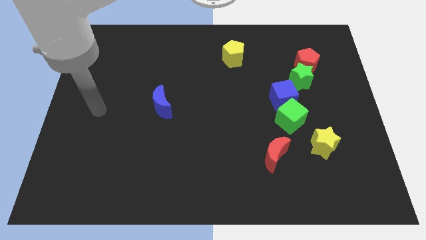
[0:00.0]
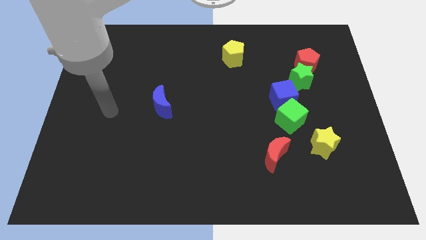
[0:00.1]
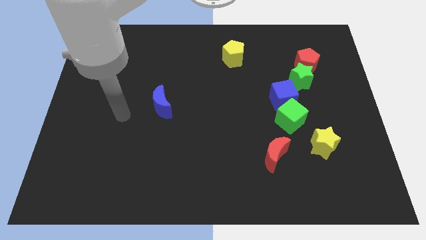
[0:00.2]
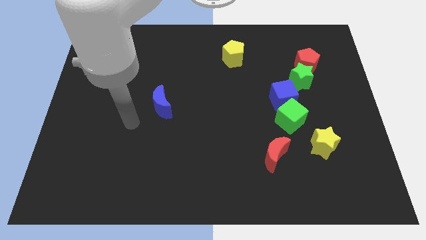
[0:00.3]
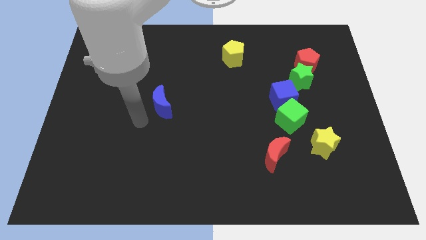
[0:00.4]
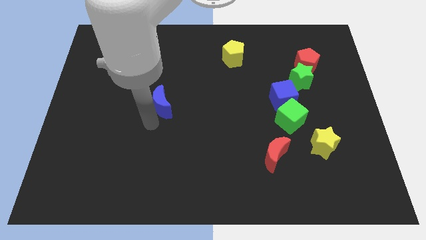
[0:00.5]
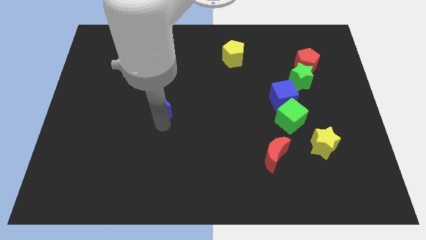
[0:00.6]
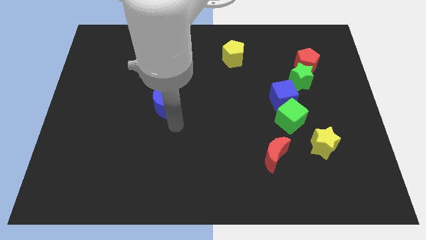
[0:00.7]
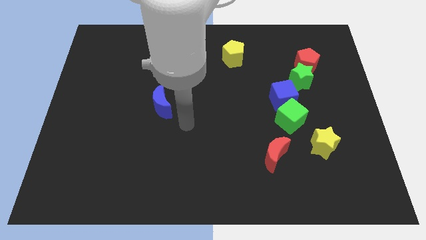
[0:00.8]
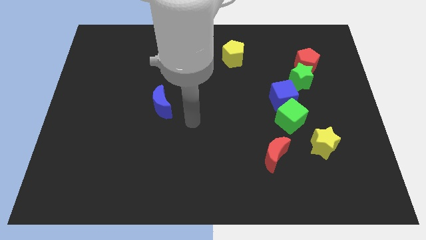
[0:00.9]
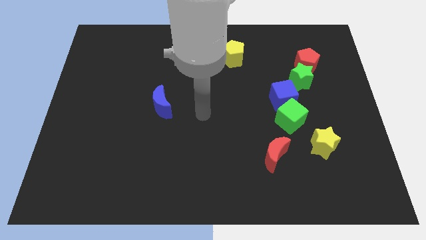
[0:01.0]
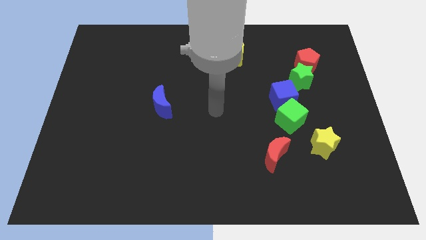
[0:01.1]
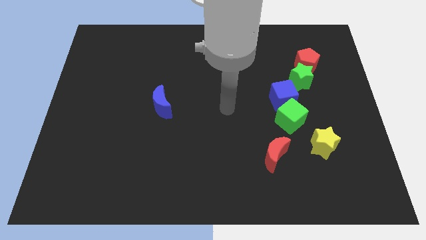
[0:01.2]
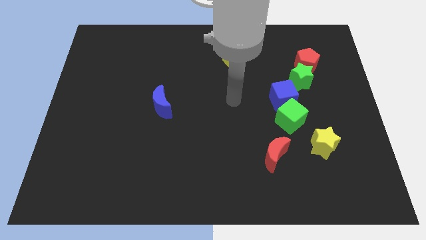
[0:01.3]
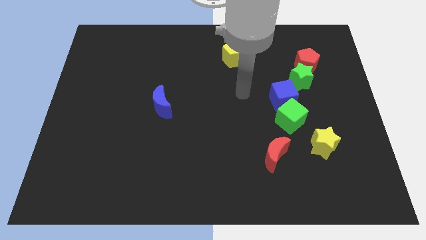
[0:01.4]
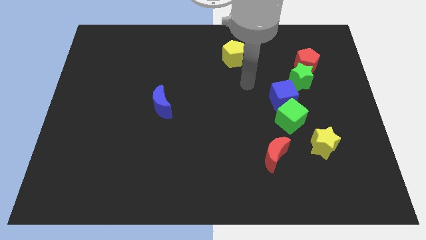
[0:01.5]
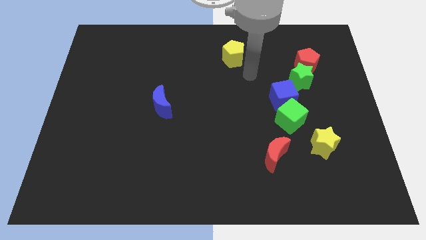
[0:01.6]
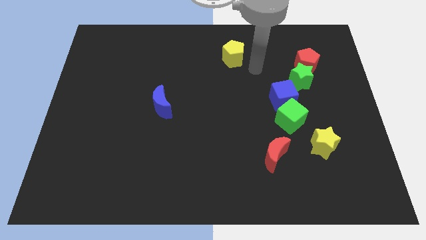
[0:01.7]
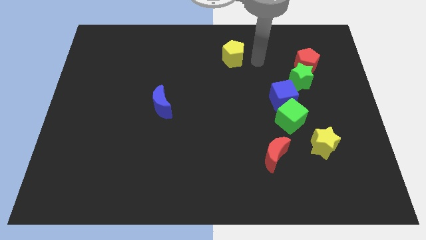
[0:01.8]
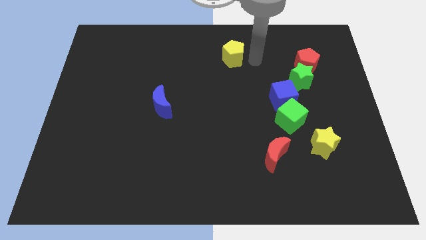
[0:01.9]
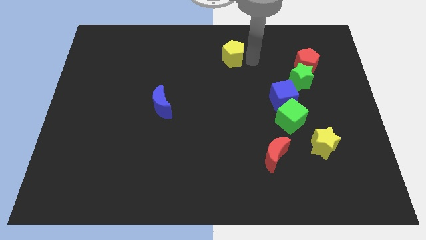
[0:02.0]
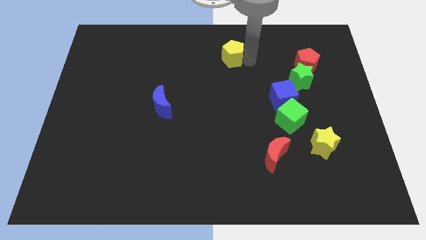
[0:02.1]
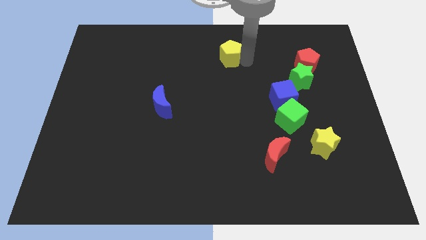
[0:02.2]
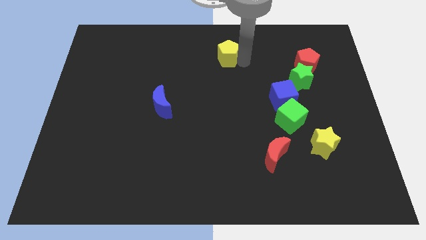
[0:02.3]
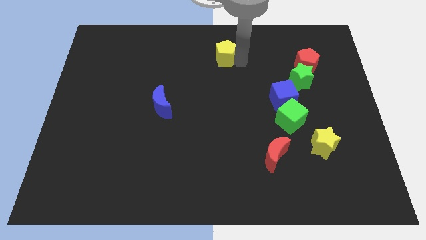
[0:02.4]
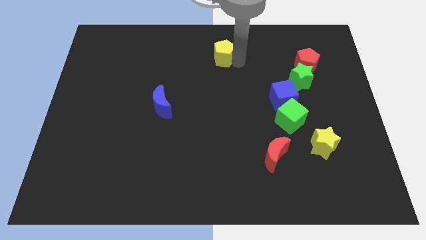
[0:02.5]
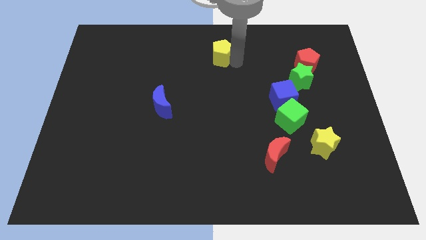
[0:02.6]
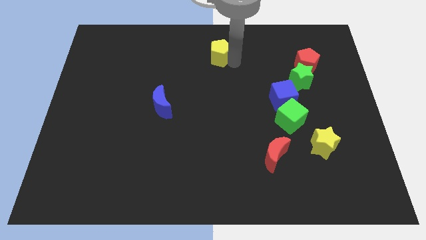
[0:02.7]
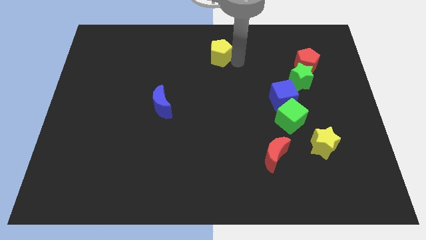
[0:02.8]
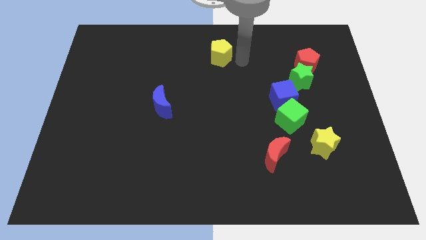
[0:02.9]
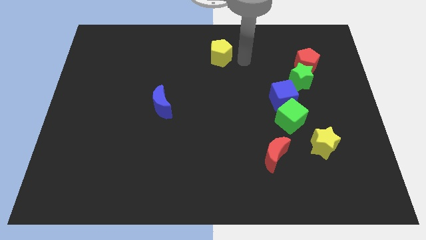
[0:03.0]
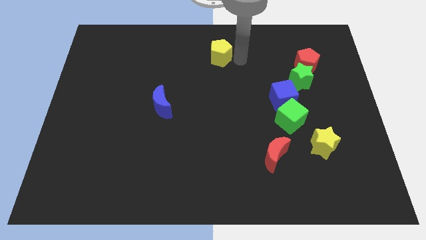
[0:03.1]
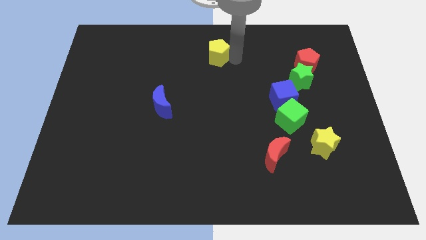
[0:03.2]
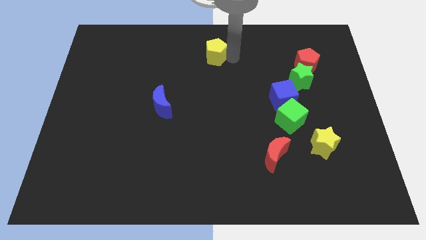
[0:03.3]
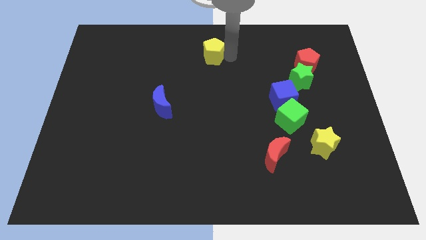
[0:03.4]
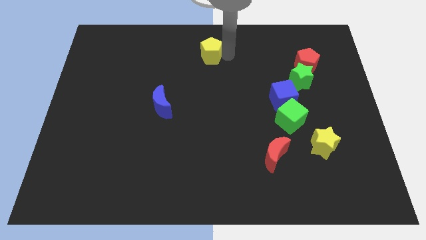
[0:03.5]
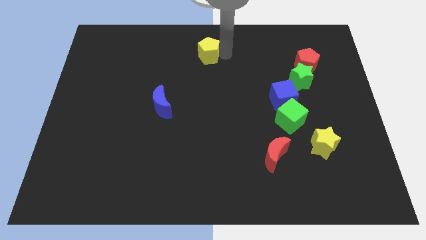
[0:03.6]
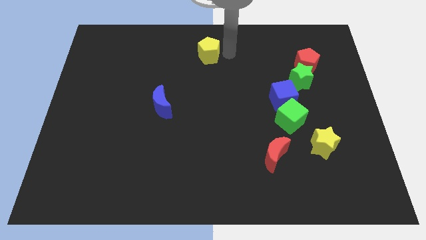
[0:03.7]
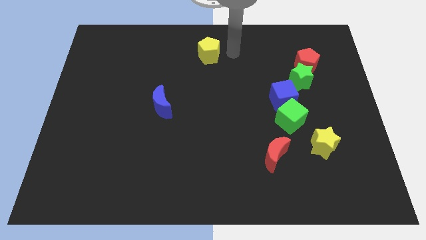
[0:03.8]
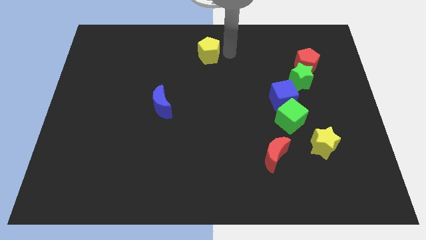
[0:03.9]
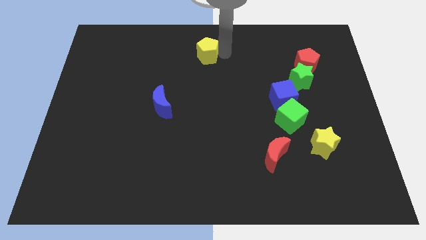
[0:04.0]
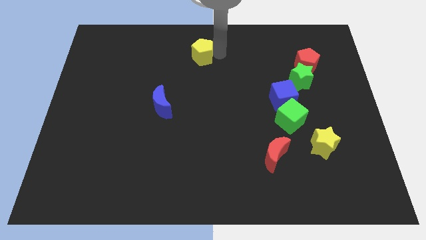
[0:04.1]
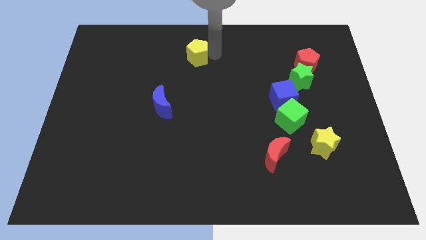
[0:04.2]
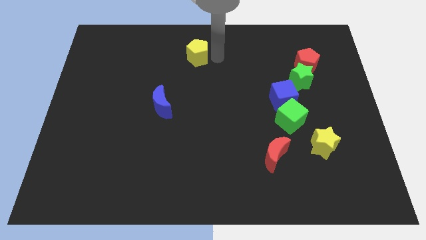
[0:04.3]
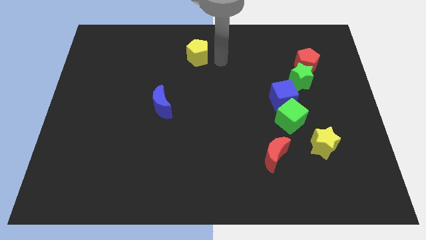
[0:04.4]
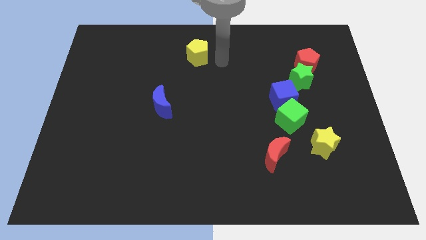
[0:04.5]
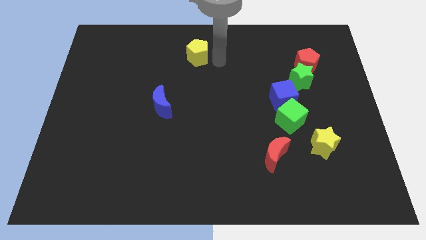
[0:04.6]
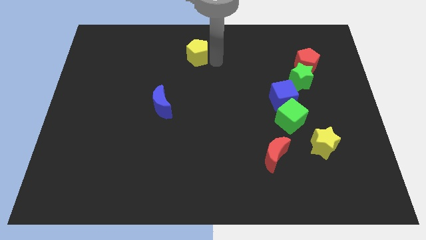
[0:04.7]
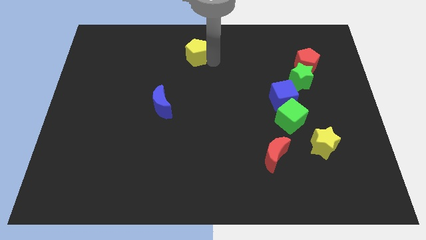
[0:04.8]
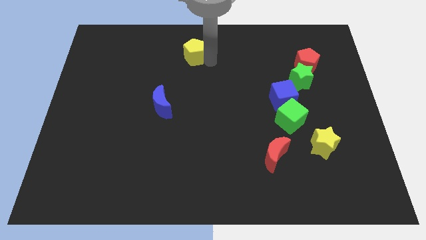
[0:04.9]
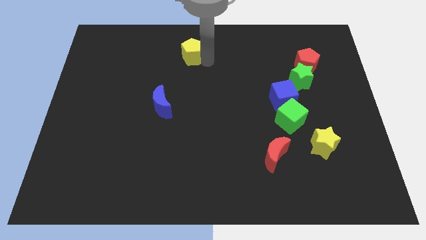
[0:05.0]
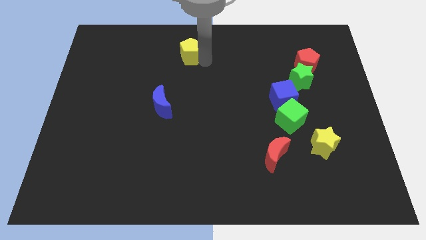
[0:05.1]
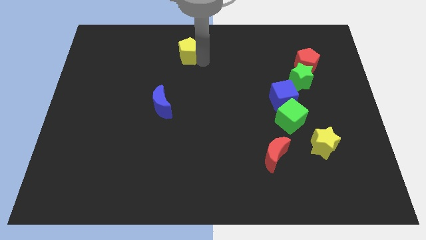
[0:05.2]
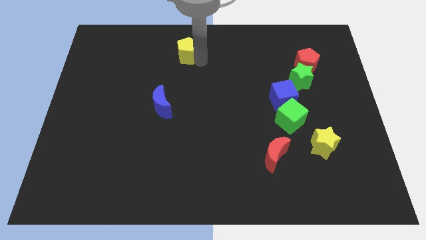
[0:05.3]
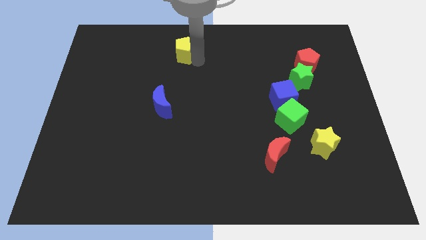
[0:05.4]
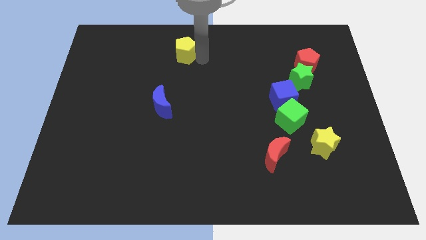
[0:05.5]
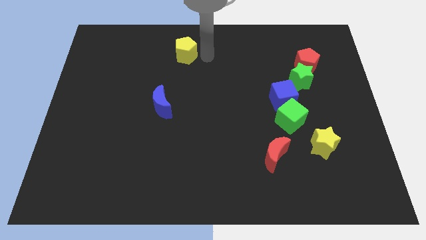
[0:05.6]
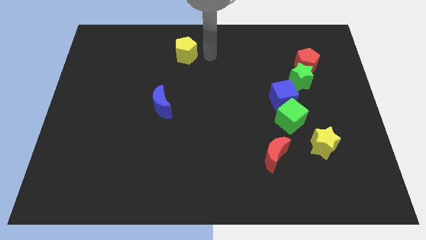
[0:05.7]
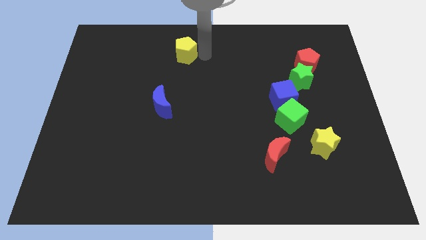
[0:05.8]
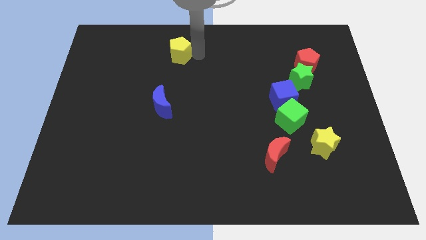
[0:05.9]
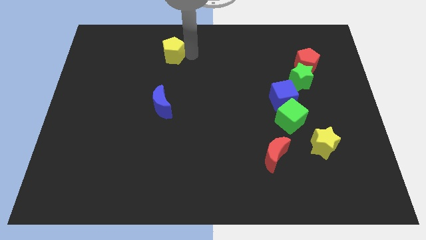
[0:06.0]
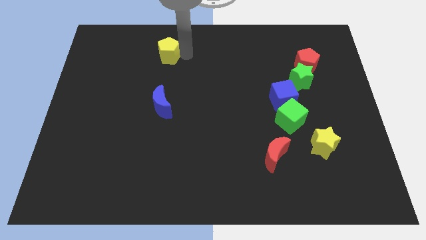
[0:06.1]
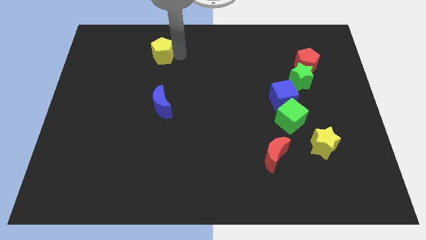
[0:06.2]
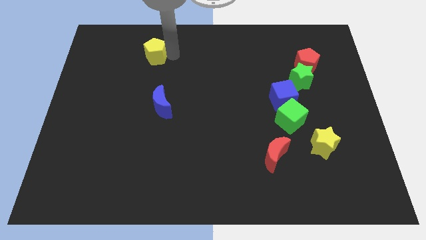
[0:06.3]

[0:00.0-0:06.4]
push the yellow pentagon left

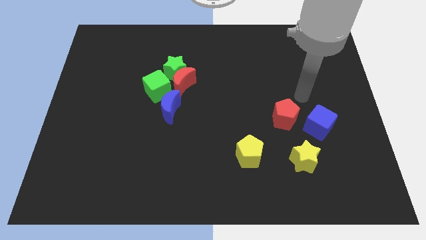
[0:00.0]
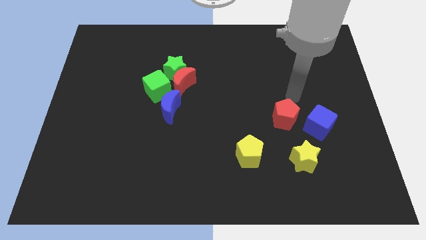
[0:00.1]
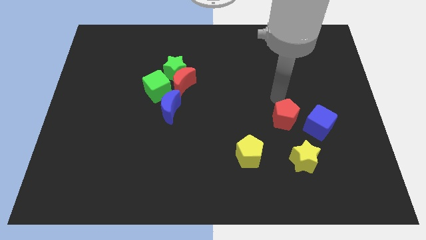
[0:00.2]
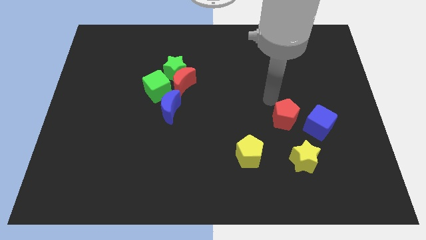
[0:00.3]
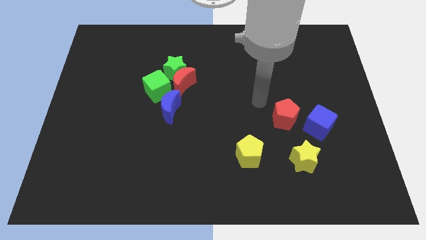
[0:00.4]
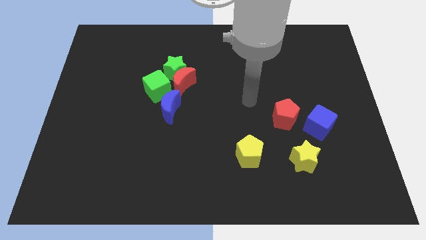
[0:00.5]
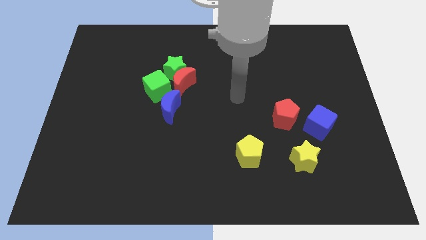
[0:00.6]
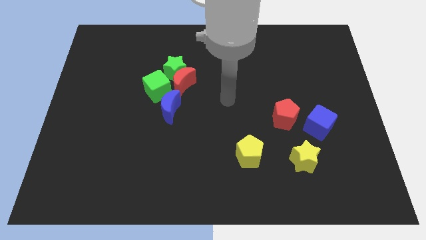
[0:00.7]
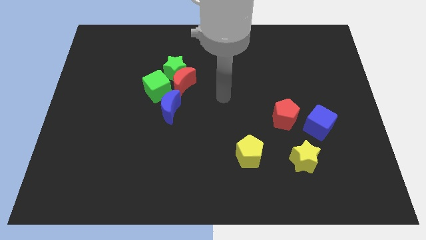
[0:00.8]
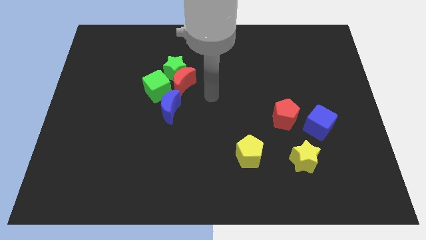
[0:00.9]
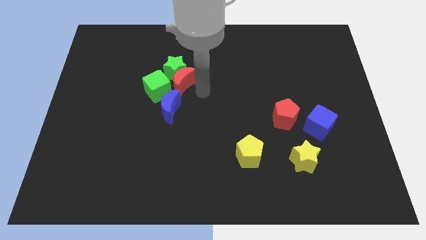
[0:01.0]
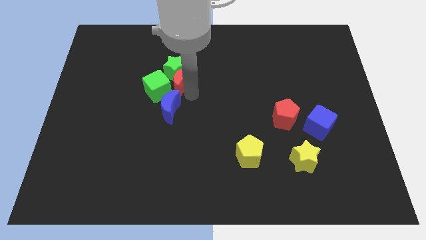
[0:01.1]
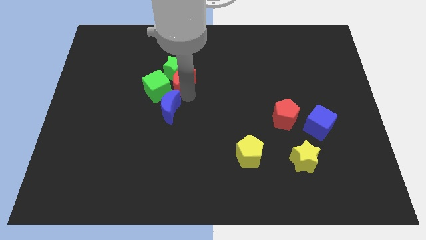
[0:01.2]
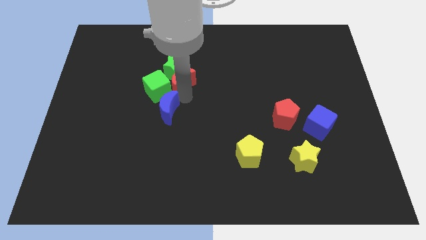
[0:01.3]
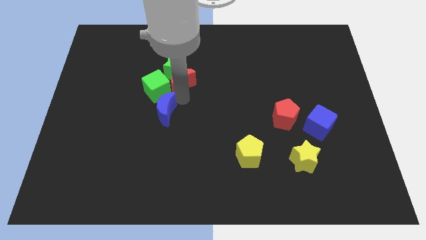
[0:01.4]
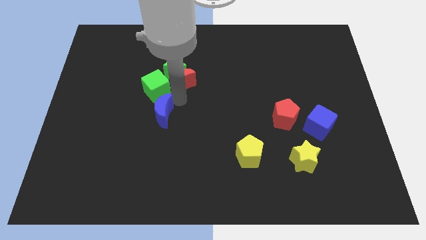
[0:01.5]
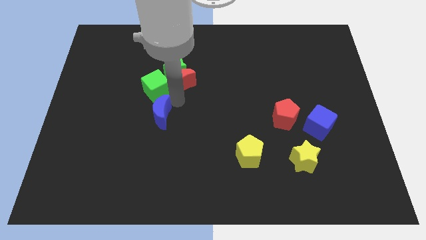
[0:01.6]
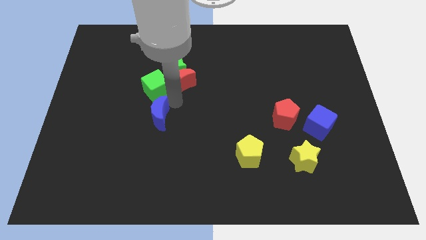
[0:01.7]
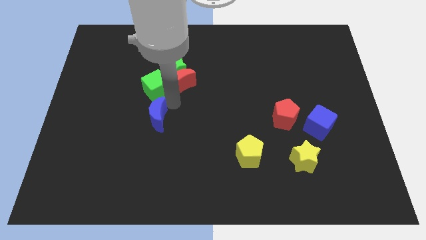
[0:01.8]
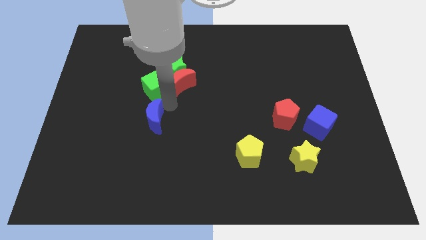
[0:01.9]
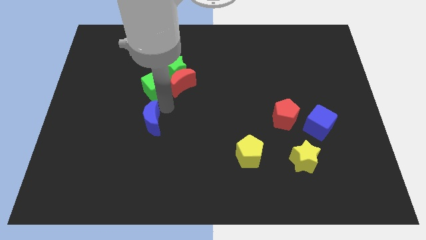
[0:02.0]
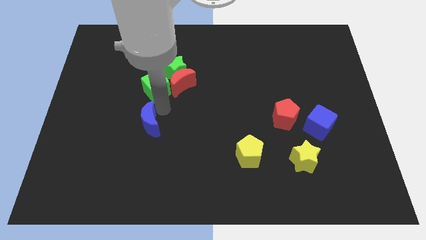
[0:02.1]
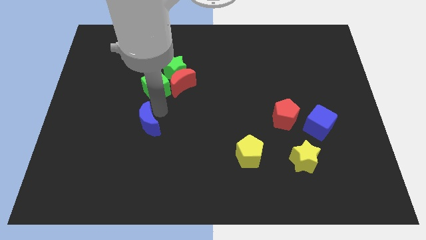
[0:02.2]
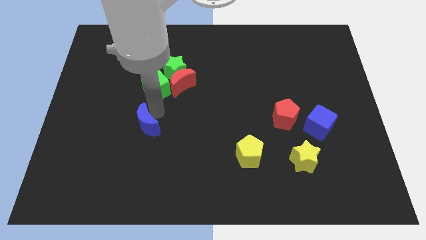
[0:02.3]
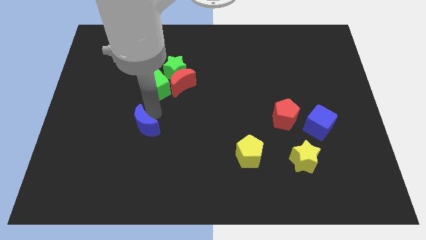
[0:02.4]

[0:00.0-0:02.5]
slightly push the blue moon diagonally downwards and left
